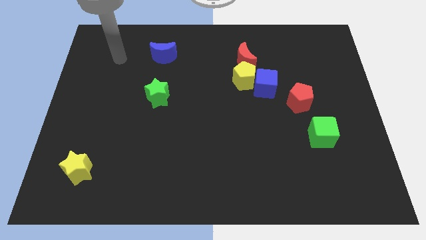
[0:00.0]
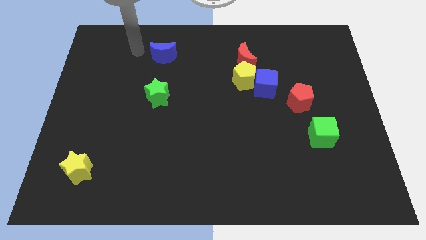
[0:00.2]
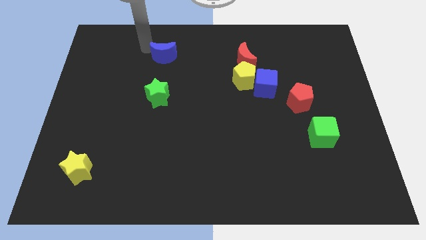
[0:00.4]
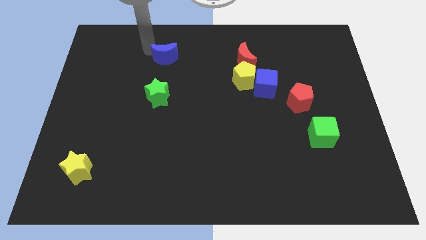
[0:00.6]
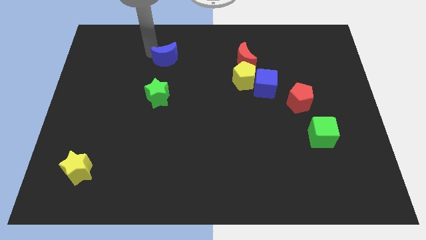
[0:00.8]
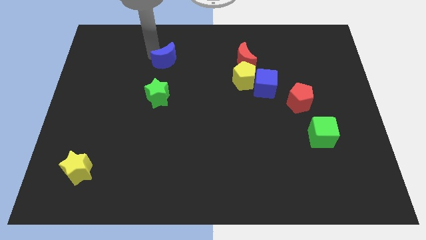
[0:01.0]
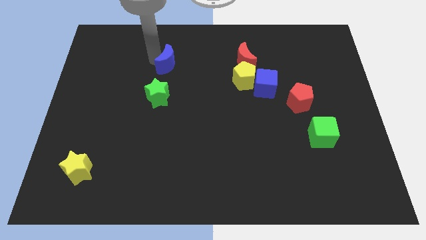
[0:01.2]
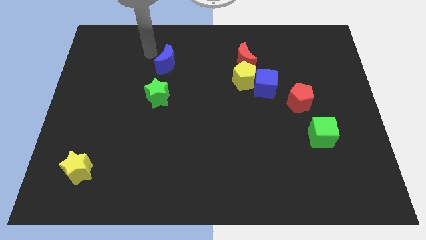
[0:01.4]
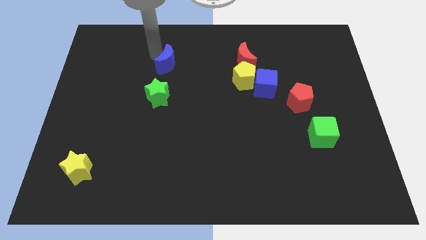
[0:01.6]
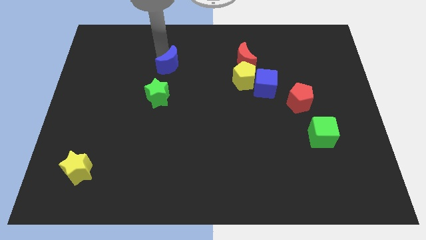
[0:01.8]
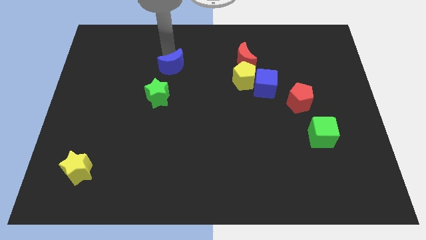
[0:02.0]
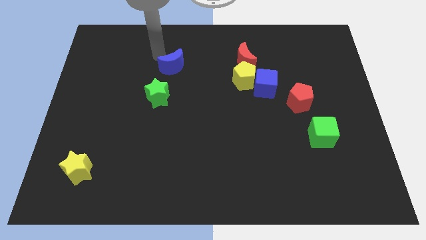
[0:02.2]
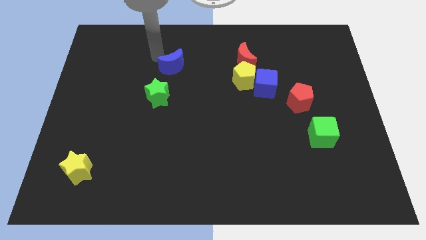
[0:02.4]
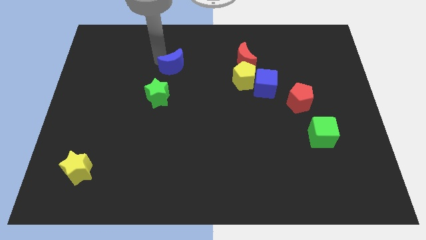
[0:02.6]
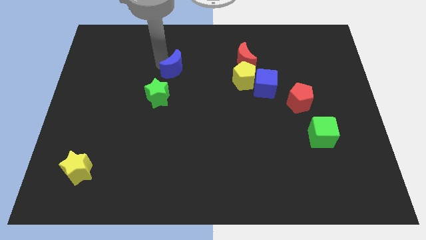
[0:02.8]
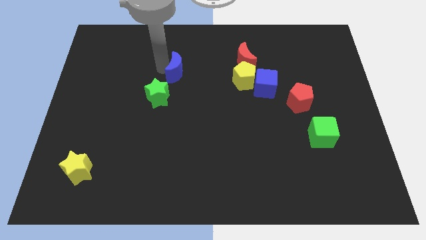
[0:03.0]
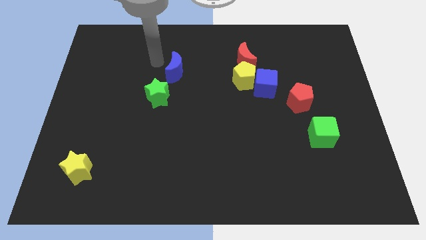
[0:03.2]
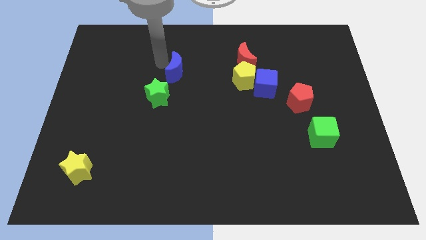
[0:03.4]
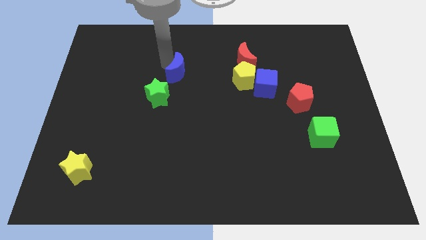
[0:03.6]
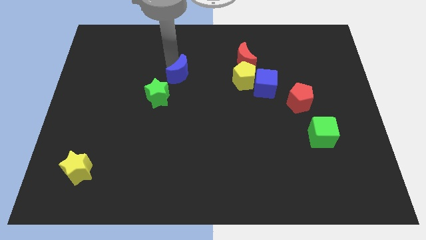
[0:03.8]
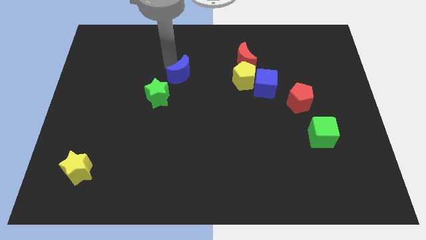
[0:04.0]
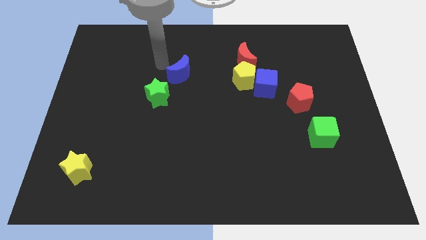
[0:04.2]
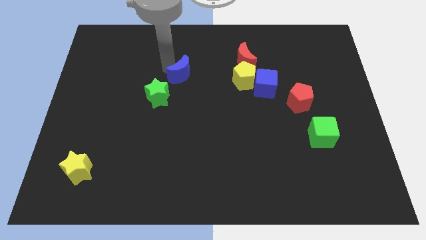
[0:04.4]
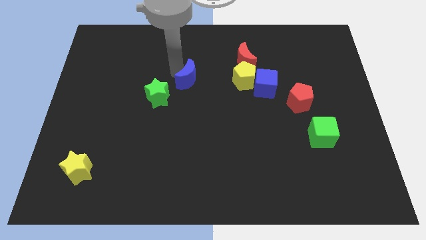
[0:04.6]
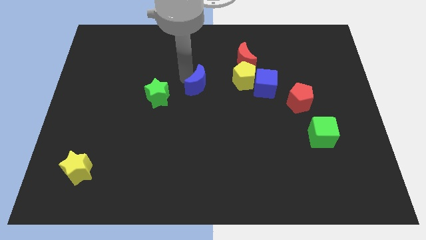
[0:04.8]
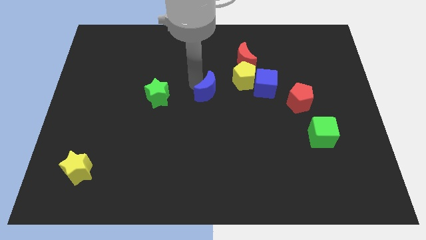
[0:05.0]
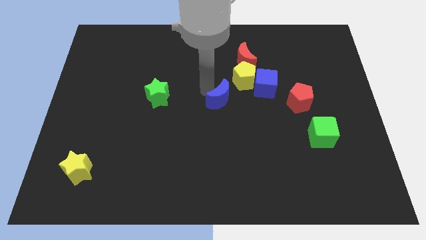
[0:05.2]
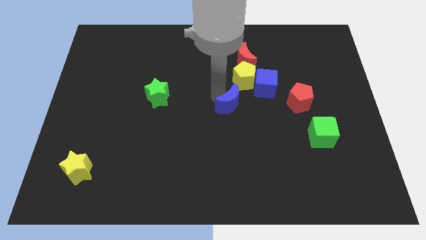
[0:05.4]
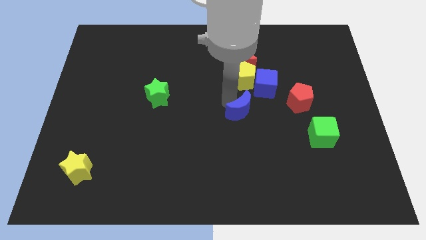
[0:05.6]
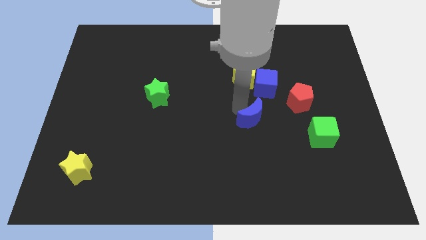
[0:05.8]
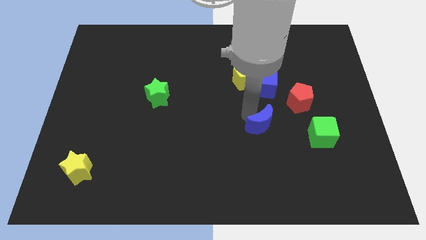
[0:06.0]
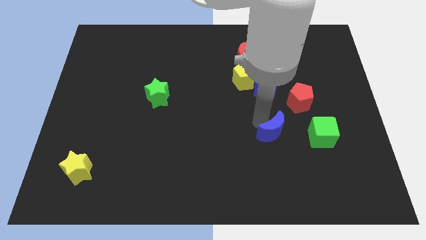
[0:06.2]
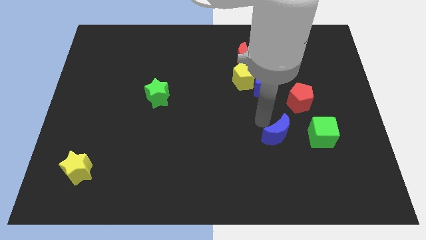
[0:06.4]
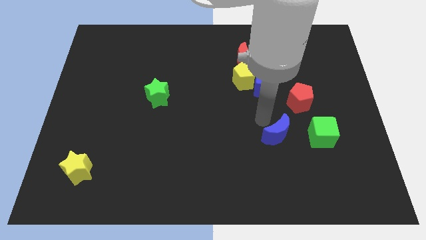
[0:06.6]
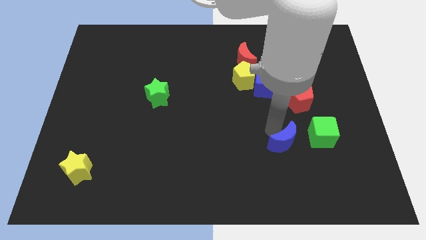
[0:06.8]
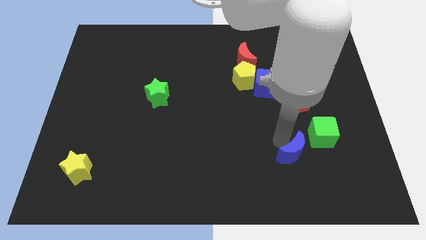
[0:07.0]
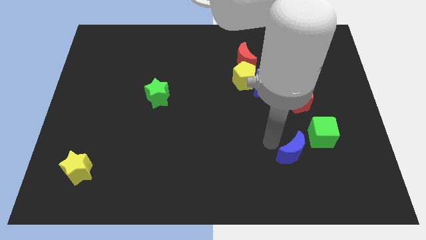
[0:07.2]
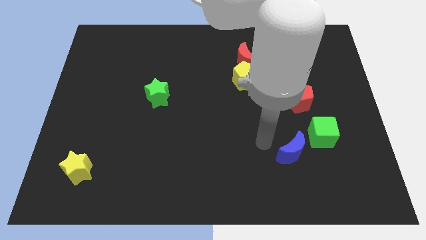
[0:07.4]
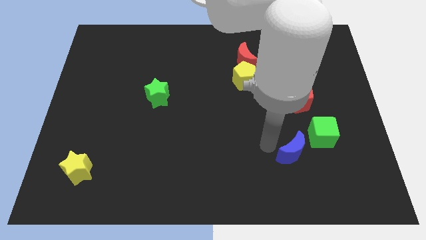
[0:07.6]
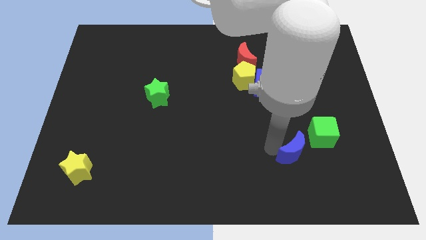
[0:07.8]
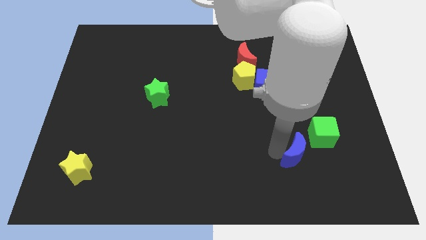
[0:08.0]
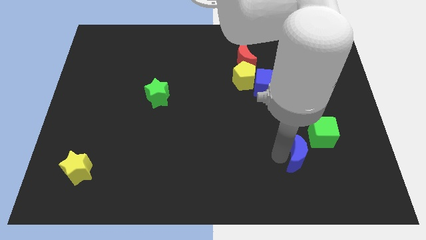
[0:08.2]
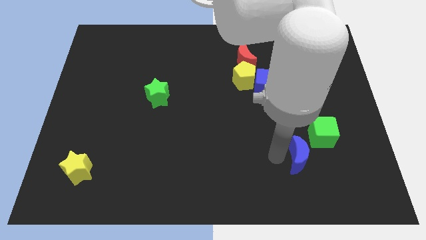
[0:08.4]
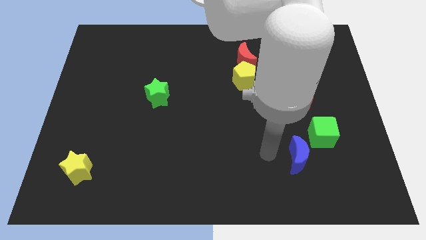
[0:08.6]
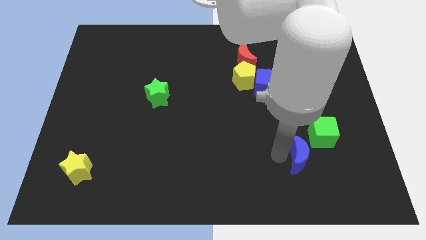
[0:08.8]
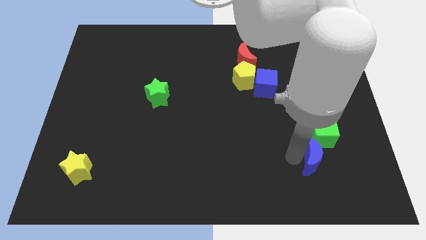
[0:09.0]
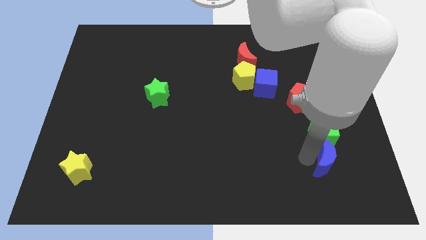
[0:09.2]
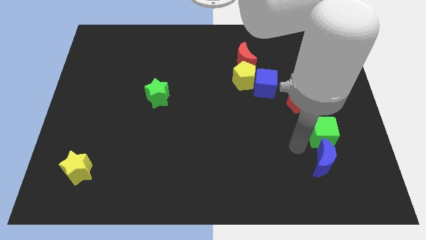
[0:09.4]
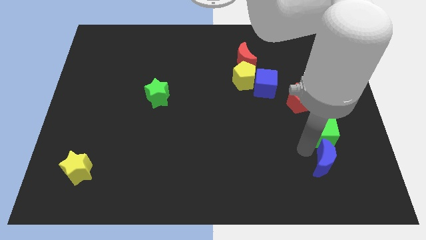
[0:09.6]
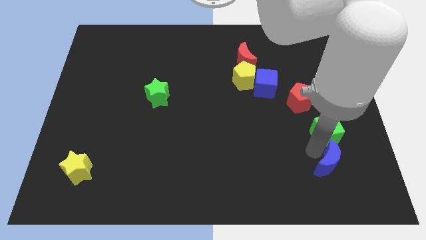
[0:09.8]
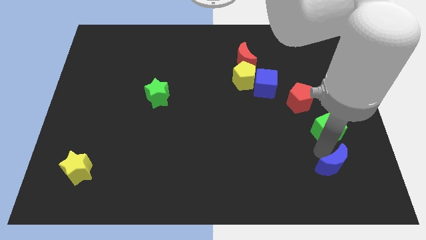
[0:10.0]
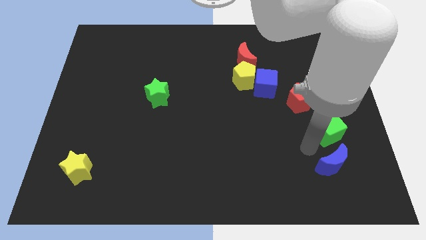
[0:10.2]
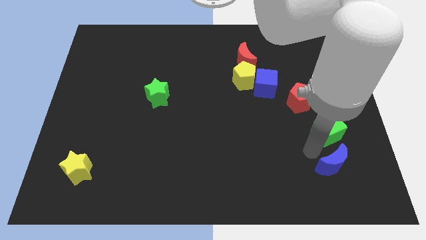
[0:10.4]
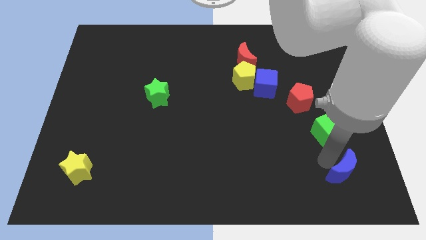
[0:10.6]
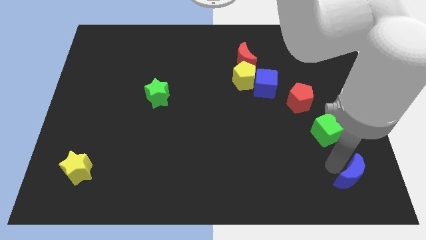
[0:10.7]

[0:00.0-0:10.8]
slide the blue moon to the bottom right of the board

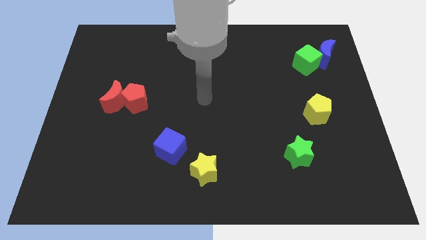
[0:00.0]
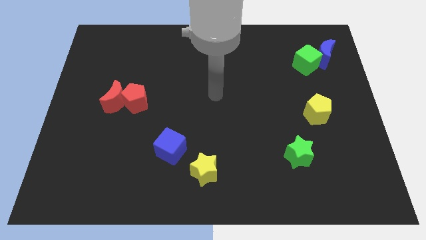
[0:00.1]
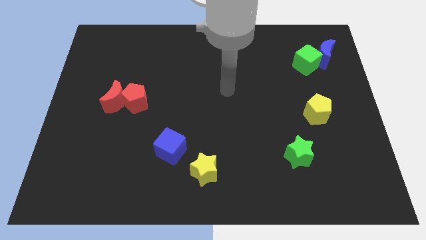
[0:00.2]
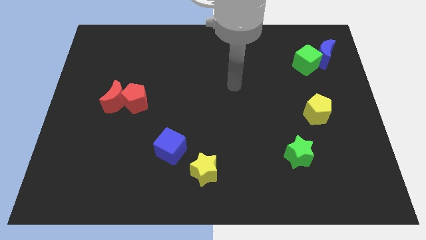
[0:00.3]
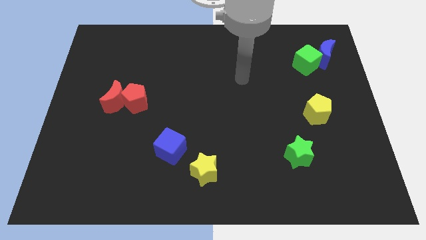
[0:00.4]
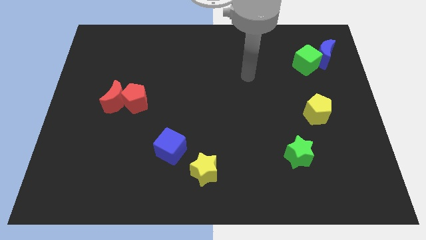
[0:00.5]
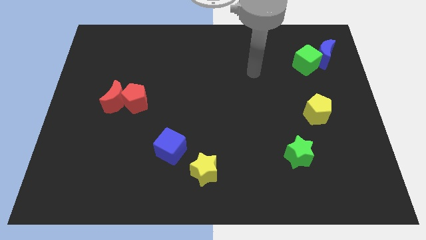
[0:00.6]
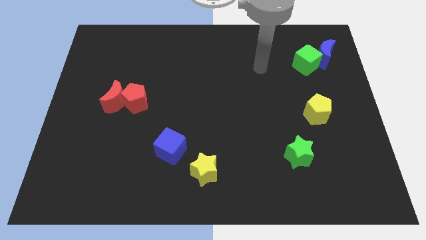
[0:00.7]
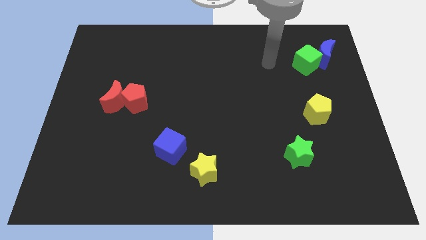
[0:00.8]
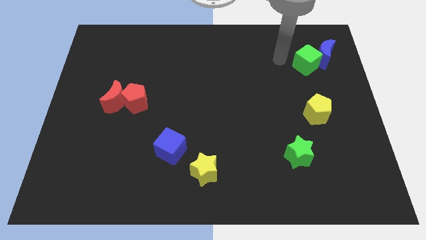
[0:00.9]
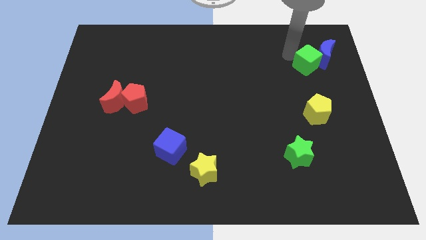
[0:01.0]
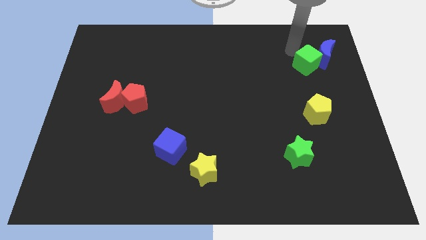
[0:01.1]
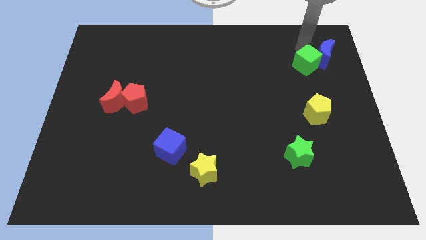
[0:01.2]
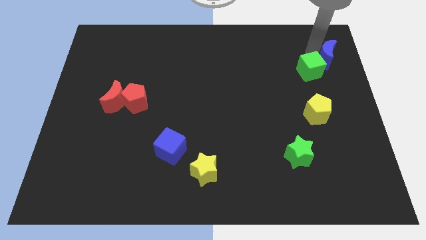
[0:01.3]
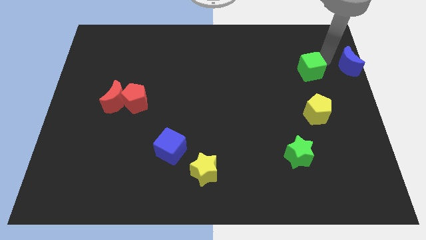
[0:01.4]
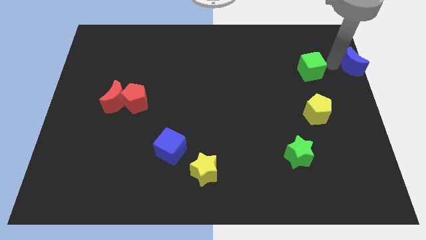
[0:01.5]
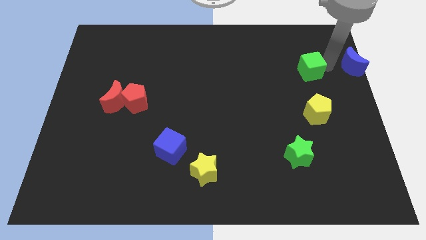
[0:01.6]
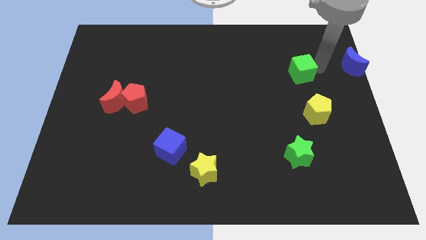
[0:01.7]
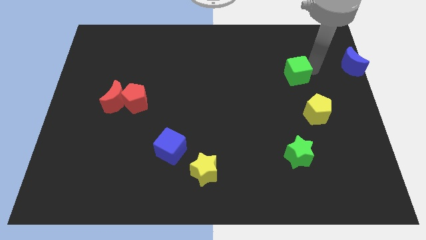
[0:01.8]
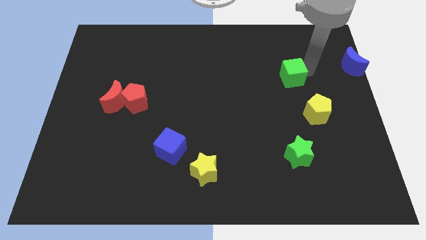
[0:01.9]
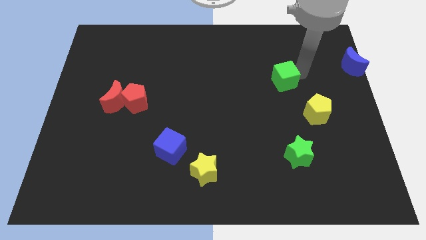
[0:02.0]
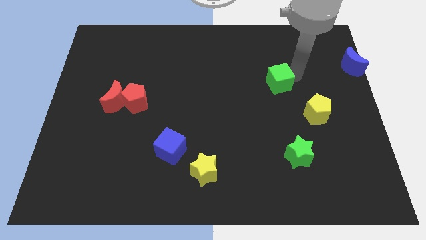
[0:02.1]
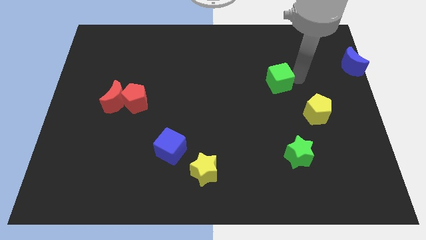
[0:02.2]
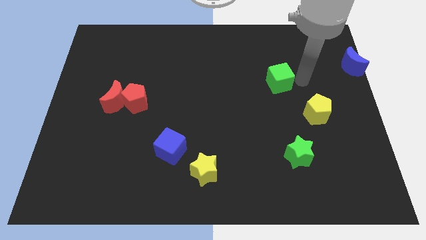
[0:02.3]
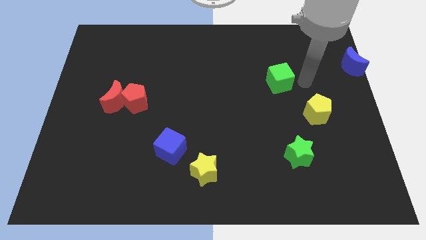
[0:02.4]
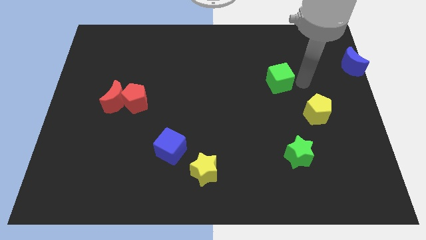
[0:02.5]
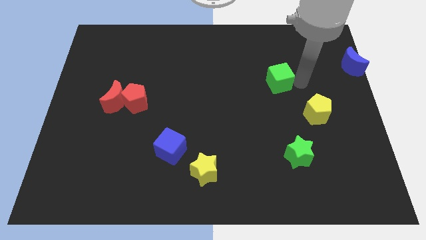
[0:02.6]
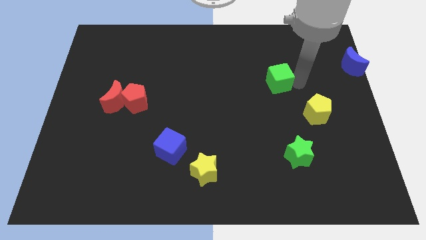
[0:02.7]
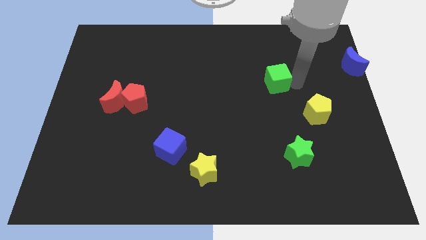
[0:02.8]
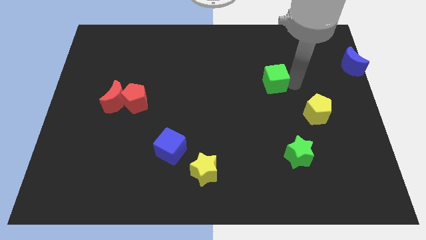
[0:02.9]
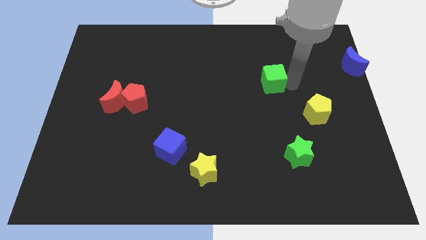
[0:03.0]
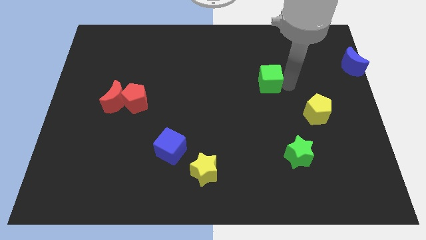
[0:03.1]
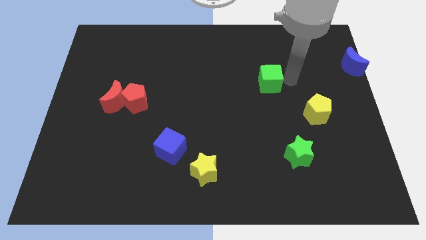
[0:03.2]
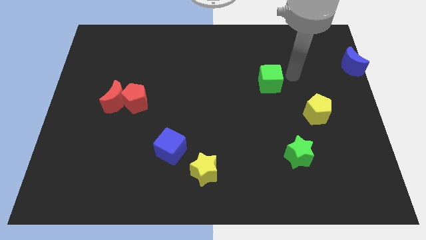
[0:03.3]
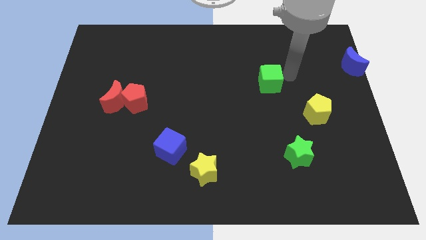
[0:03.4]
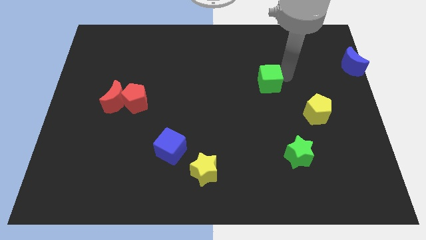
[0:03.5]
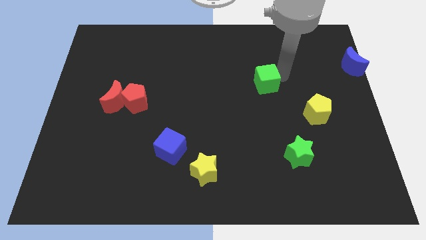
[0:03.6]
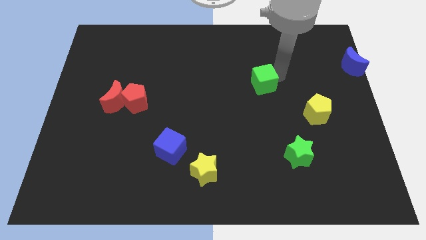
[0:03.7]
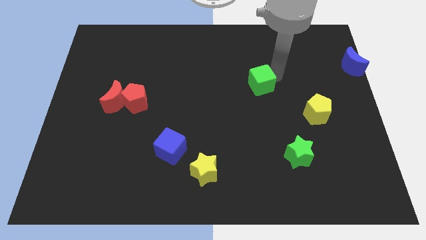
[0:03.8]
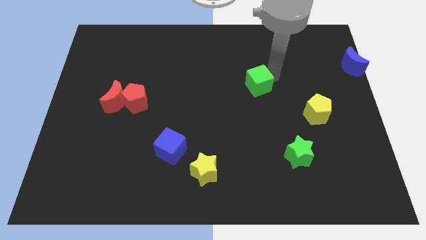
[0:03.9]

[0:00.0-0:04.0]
move the green cube to the center of the board
